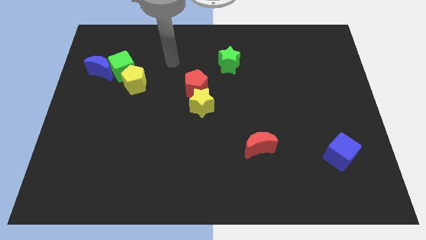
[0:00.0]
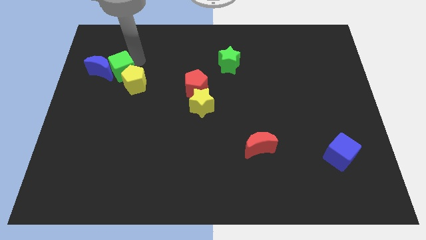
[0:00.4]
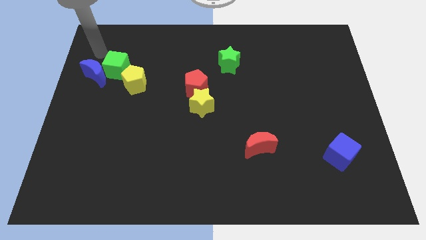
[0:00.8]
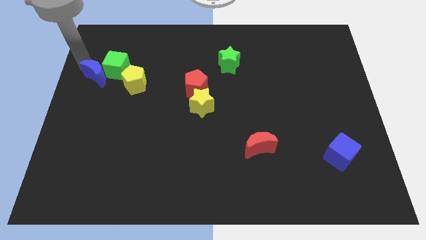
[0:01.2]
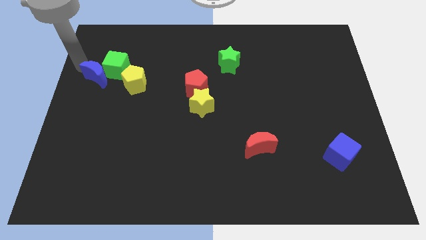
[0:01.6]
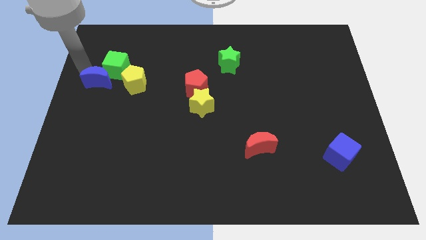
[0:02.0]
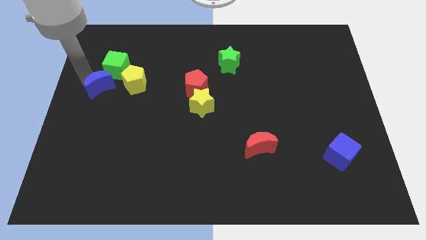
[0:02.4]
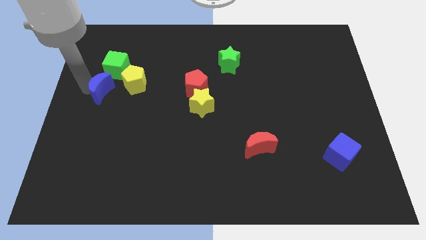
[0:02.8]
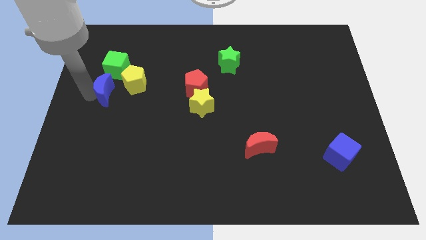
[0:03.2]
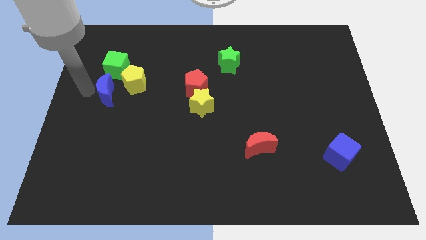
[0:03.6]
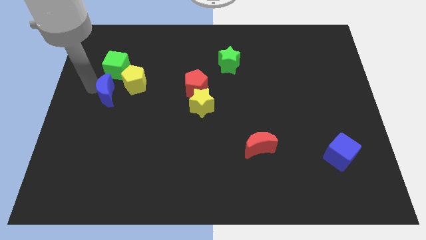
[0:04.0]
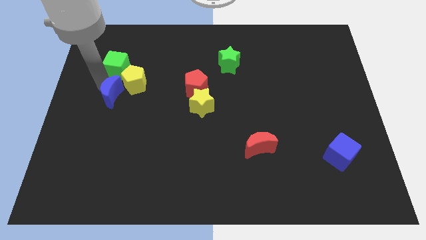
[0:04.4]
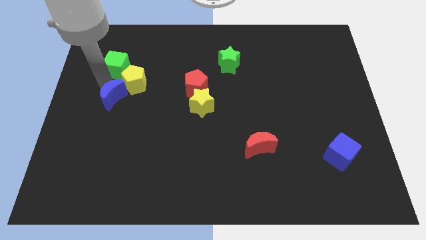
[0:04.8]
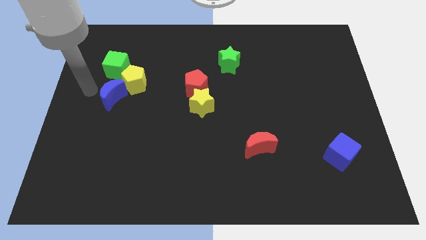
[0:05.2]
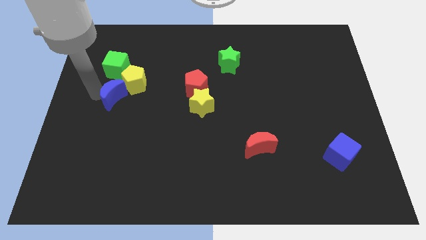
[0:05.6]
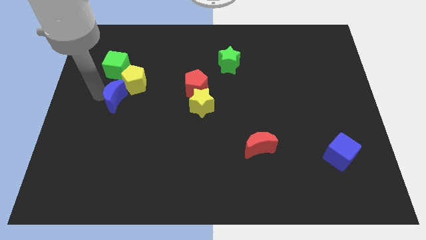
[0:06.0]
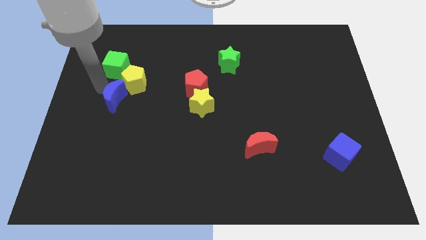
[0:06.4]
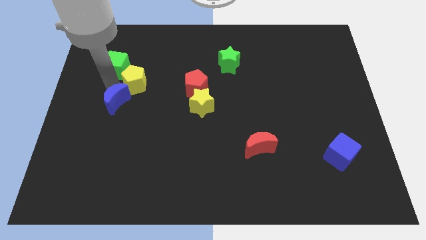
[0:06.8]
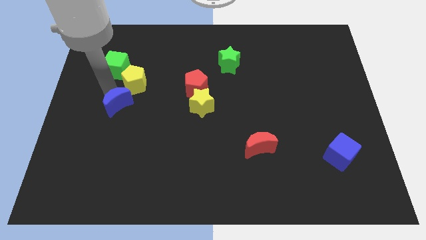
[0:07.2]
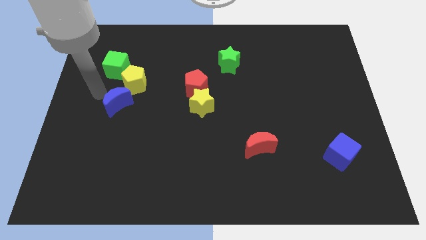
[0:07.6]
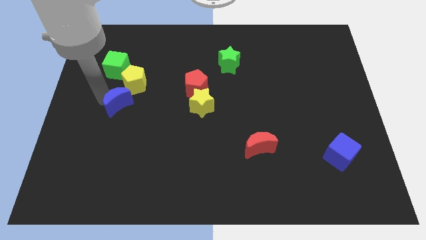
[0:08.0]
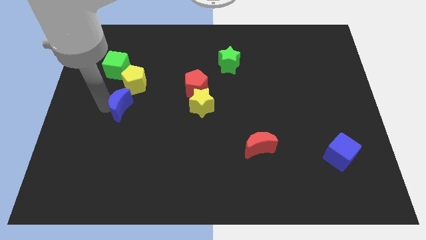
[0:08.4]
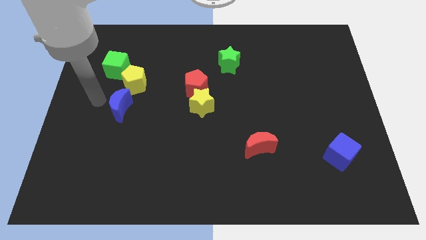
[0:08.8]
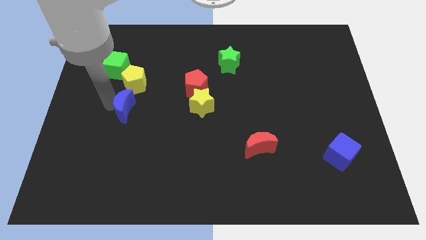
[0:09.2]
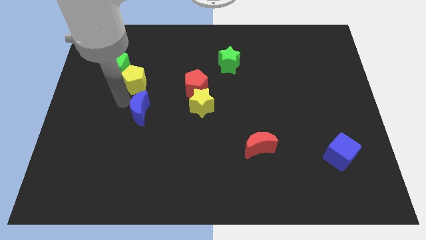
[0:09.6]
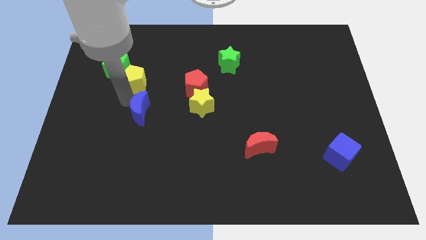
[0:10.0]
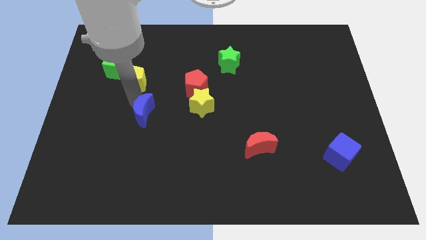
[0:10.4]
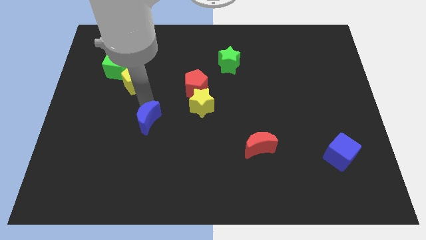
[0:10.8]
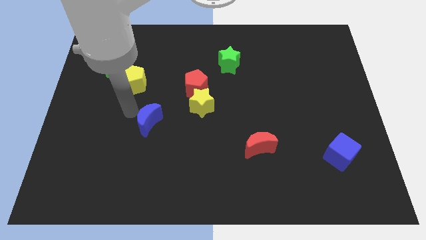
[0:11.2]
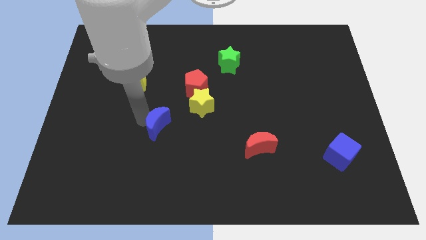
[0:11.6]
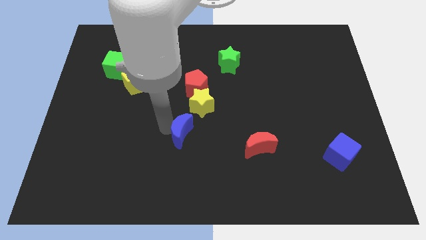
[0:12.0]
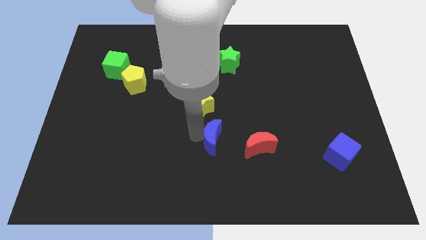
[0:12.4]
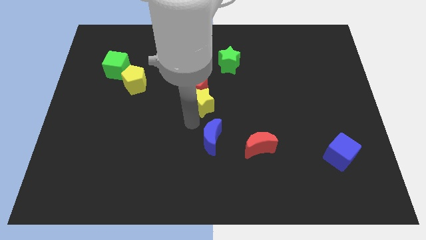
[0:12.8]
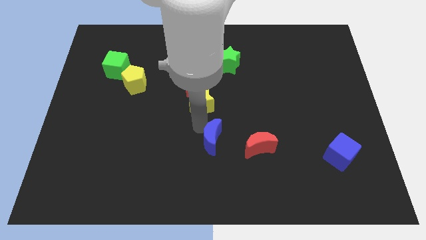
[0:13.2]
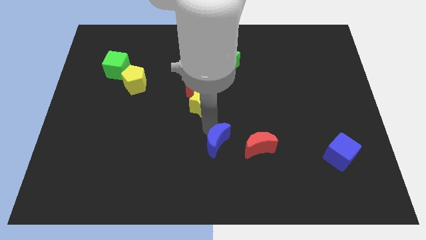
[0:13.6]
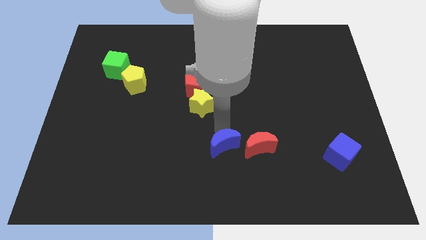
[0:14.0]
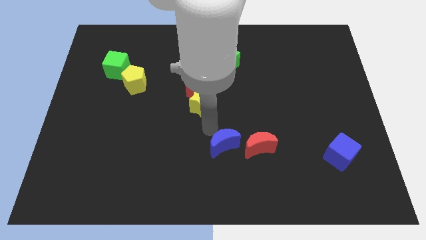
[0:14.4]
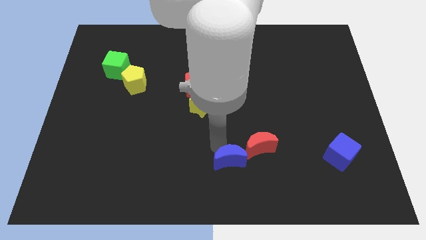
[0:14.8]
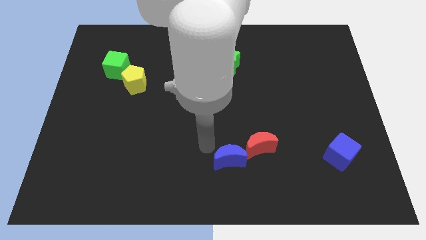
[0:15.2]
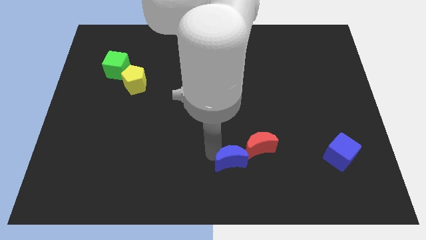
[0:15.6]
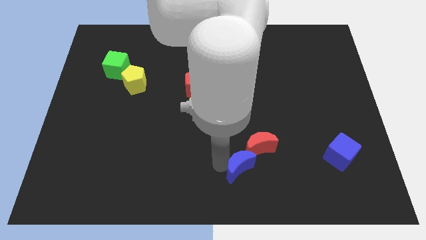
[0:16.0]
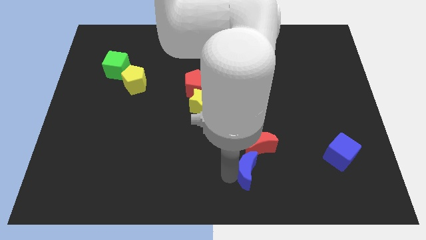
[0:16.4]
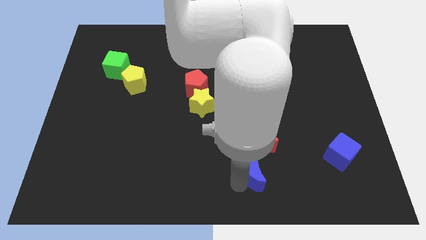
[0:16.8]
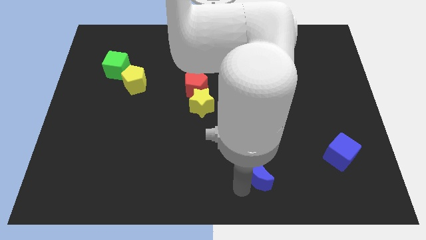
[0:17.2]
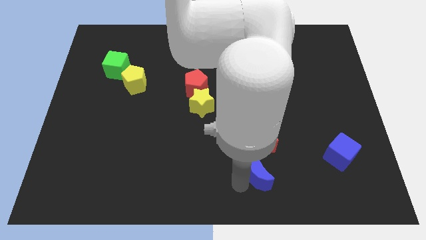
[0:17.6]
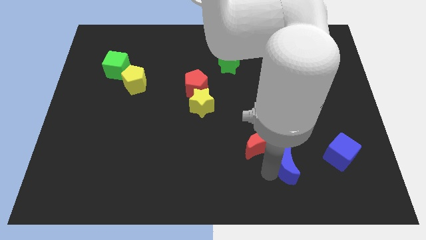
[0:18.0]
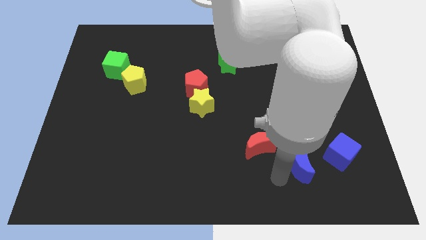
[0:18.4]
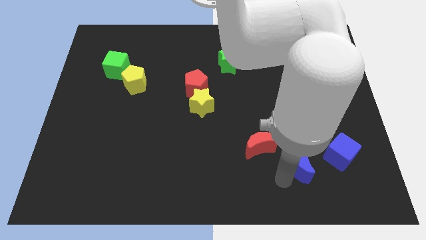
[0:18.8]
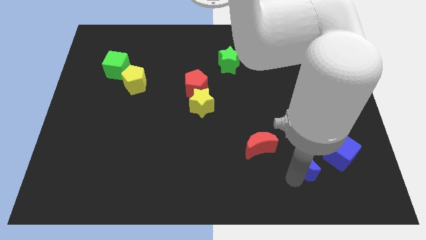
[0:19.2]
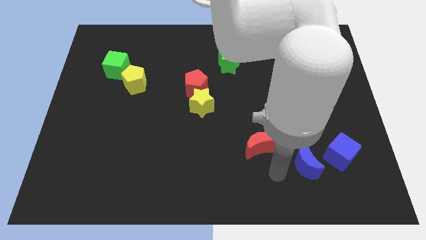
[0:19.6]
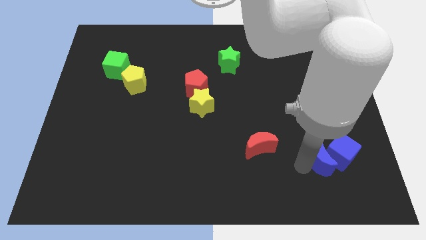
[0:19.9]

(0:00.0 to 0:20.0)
slide the blue moon to the blue cube

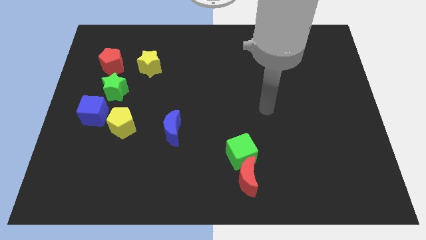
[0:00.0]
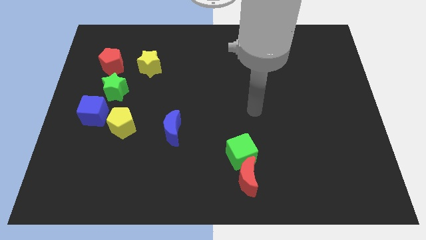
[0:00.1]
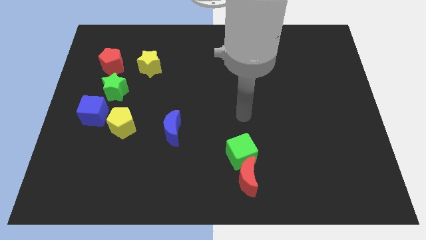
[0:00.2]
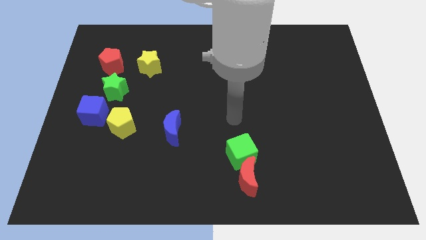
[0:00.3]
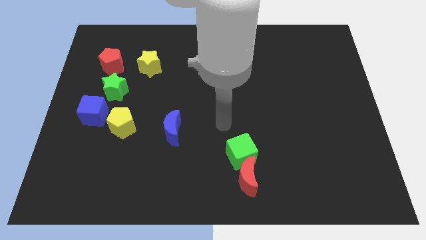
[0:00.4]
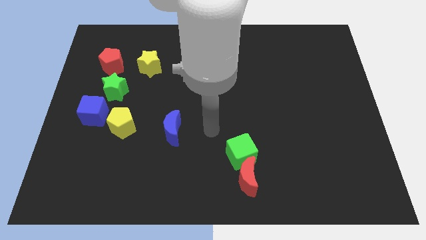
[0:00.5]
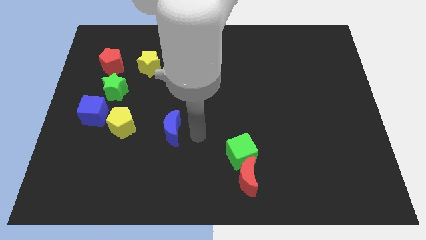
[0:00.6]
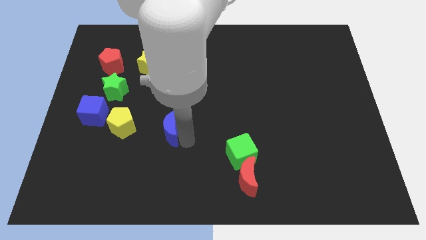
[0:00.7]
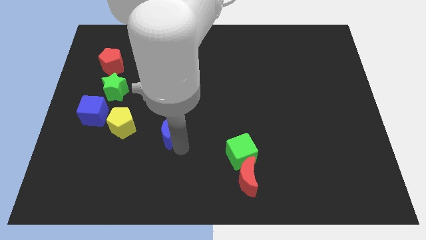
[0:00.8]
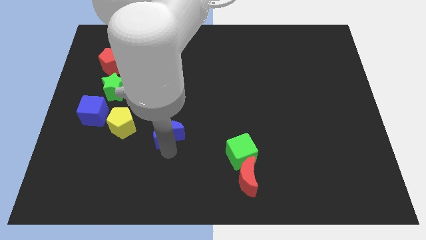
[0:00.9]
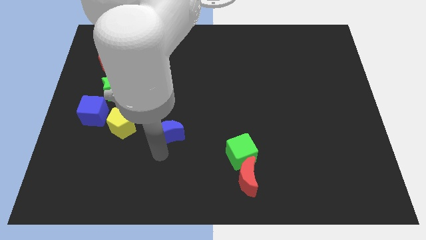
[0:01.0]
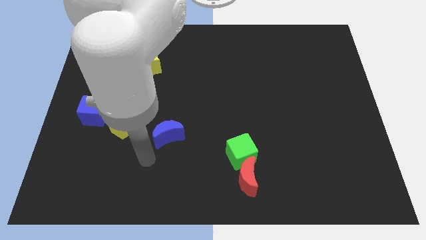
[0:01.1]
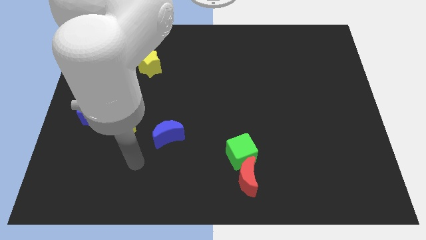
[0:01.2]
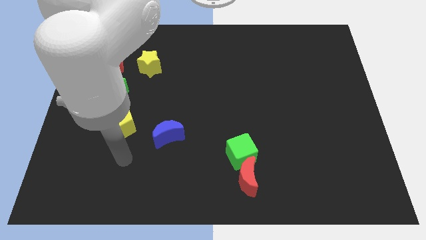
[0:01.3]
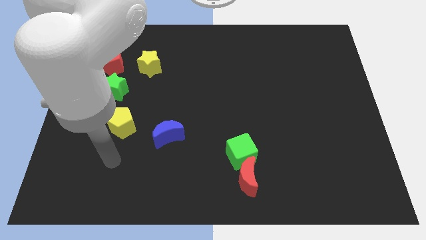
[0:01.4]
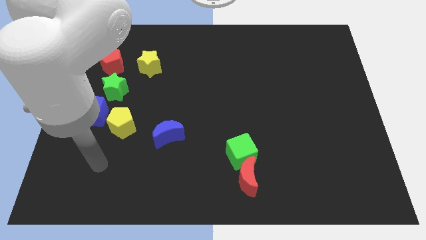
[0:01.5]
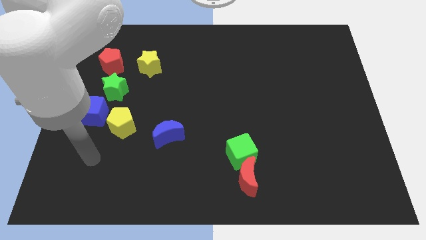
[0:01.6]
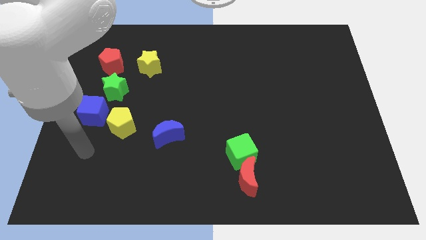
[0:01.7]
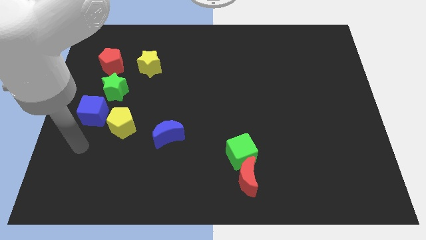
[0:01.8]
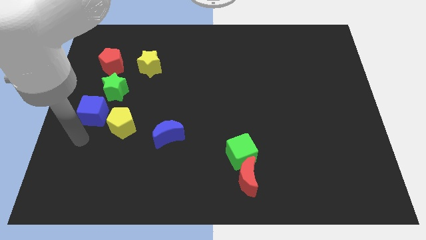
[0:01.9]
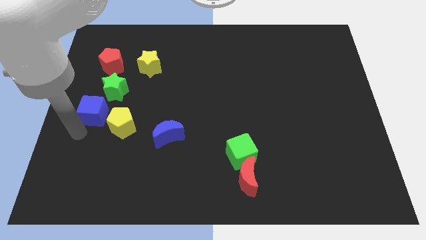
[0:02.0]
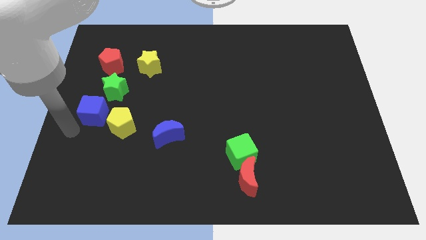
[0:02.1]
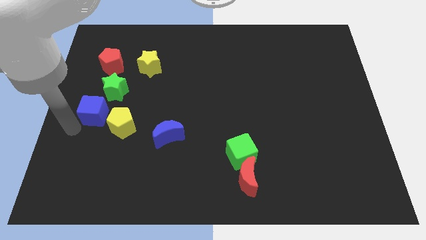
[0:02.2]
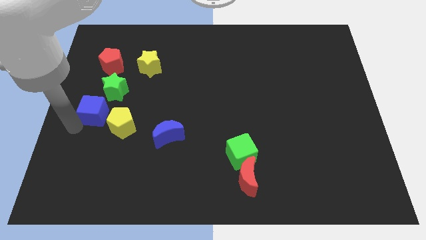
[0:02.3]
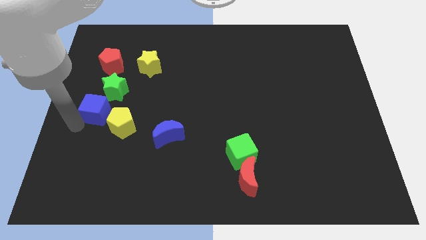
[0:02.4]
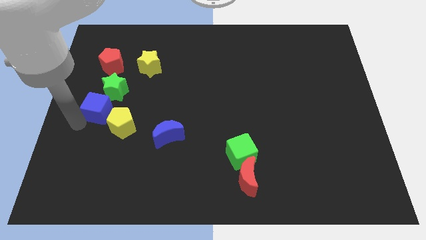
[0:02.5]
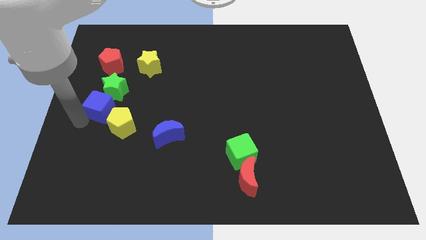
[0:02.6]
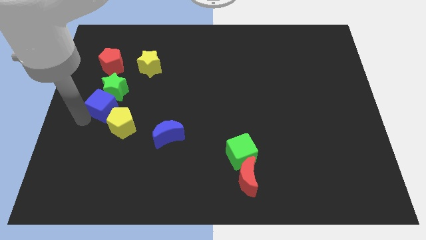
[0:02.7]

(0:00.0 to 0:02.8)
put the blue cube next to the green star

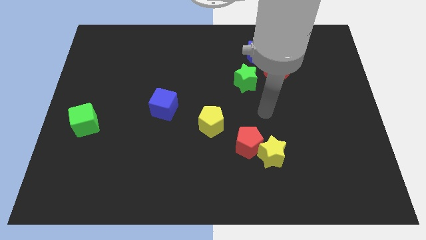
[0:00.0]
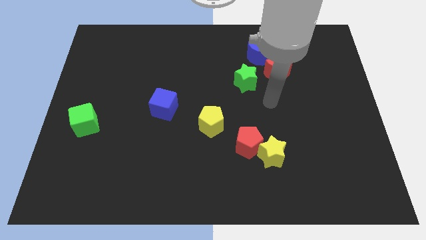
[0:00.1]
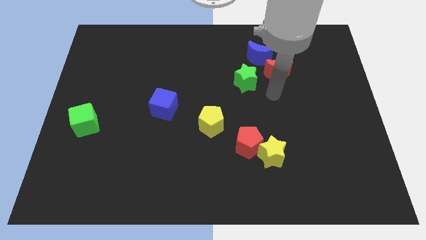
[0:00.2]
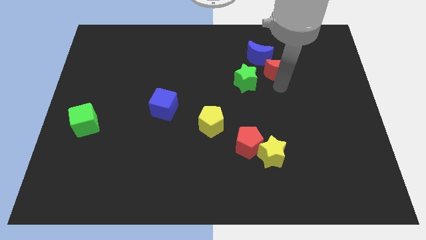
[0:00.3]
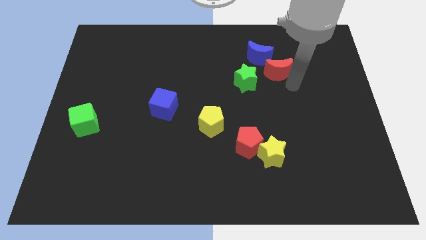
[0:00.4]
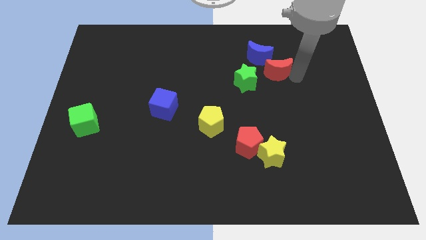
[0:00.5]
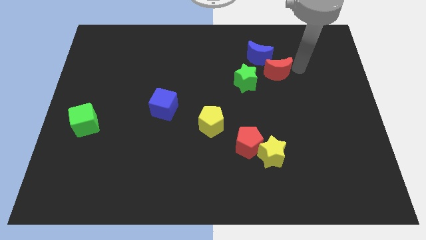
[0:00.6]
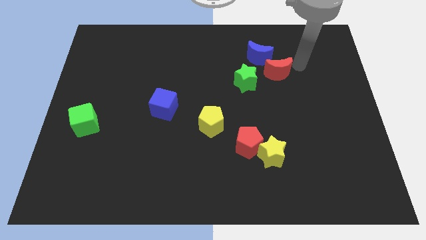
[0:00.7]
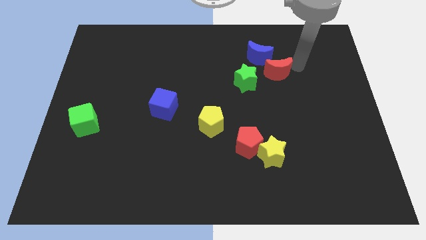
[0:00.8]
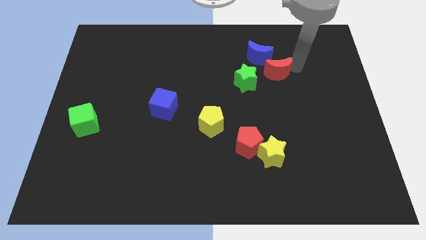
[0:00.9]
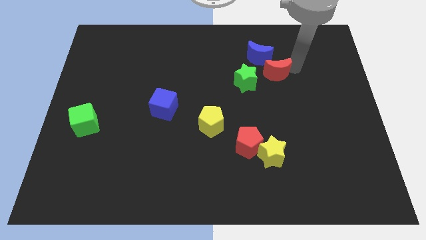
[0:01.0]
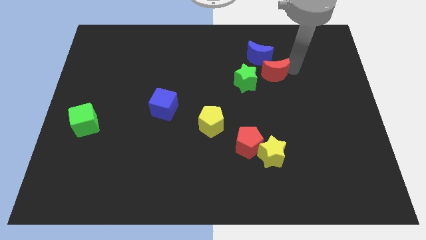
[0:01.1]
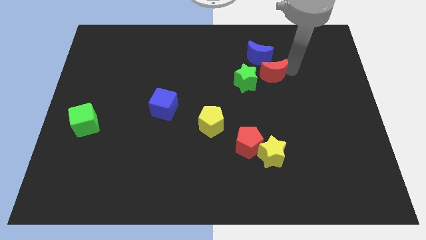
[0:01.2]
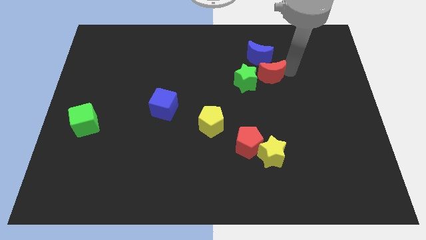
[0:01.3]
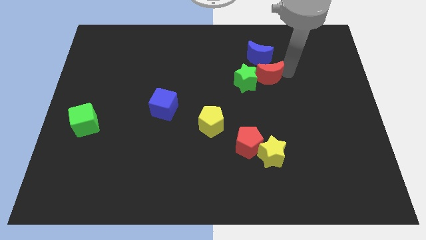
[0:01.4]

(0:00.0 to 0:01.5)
put the red moon next to the green star
